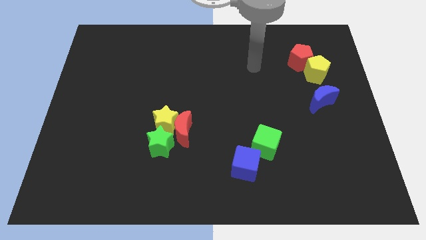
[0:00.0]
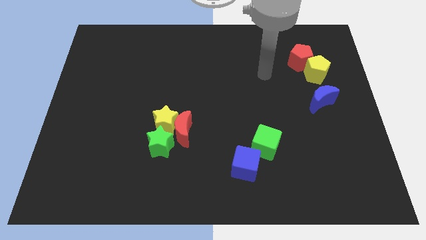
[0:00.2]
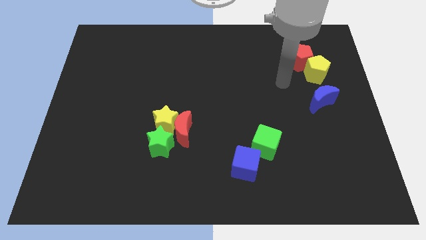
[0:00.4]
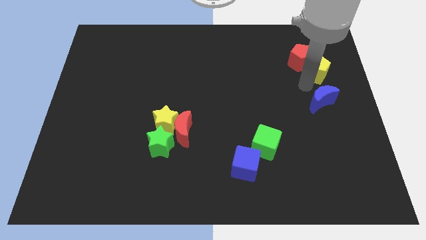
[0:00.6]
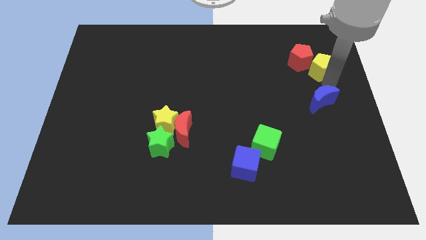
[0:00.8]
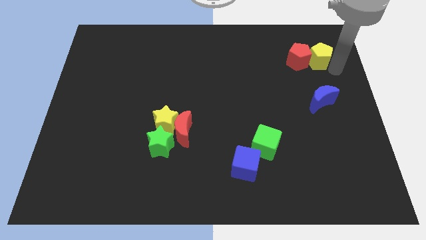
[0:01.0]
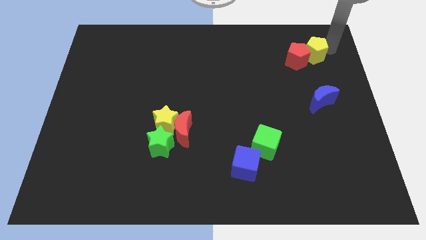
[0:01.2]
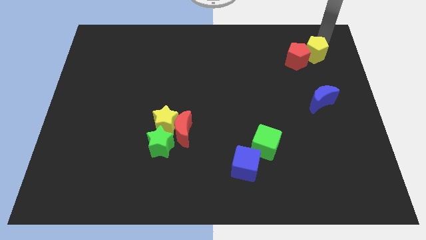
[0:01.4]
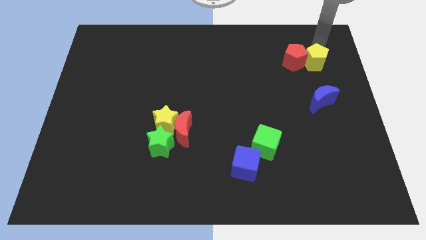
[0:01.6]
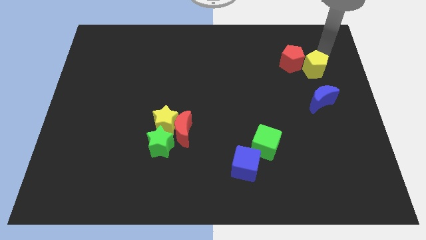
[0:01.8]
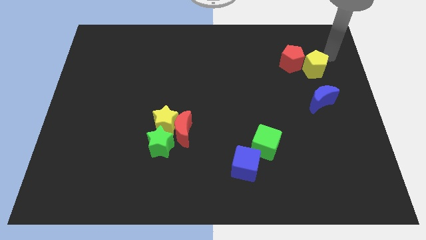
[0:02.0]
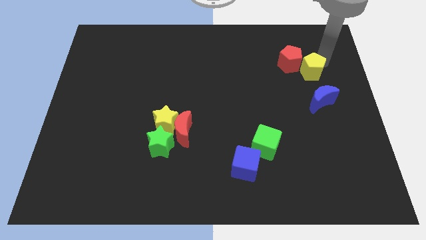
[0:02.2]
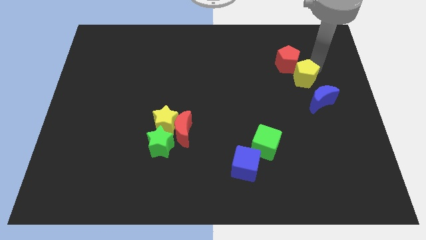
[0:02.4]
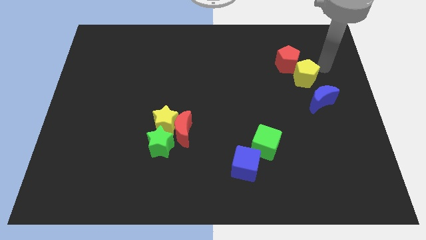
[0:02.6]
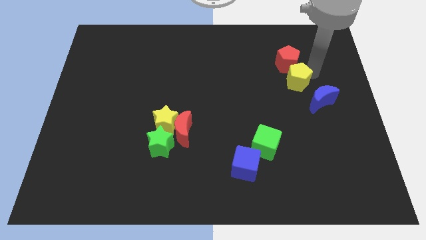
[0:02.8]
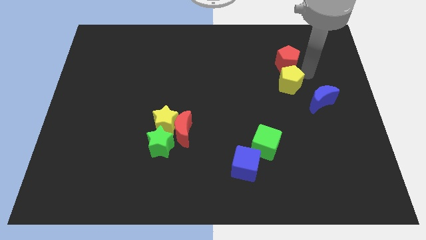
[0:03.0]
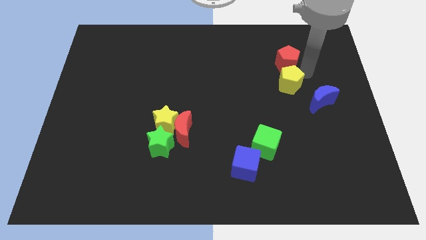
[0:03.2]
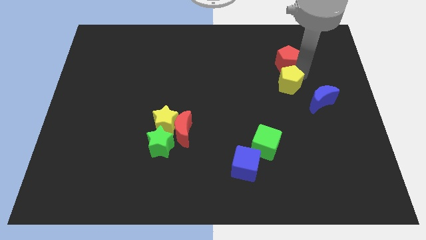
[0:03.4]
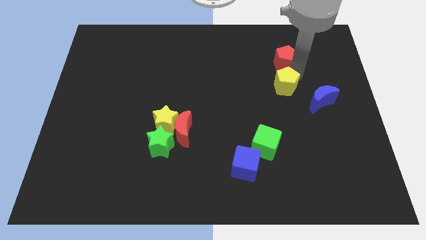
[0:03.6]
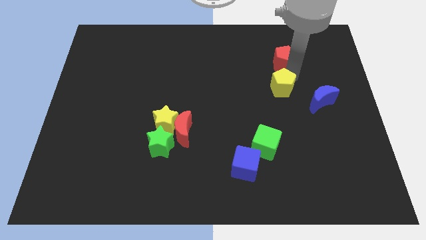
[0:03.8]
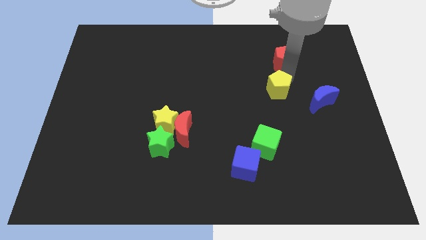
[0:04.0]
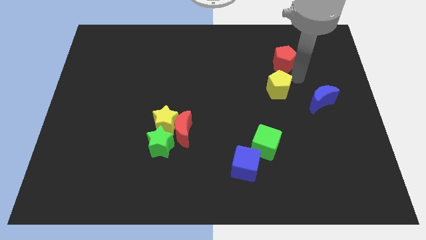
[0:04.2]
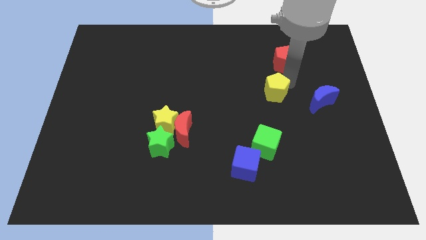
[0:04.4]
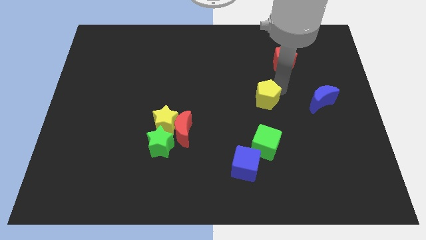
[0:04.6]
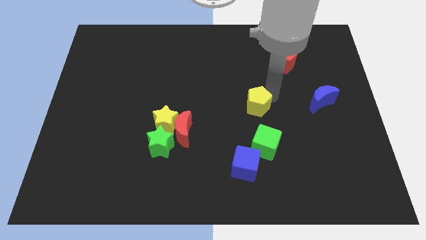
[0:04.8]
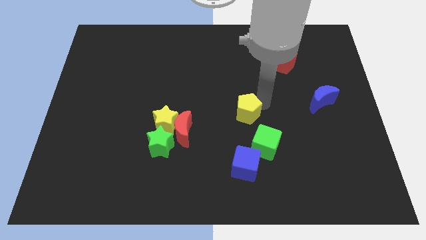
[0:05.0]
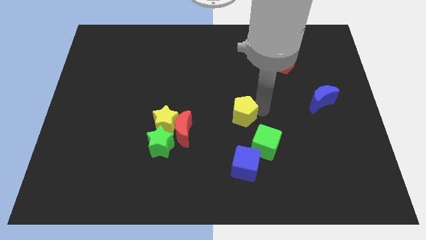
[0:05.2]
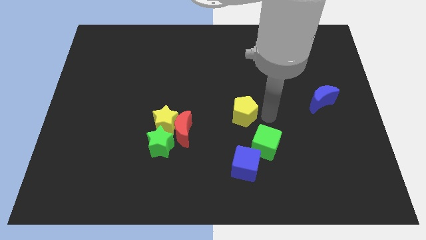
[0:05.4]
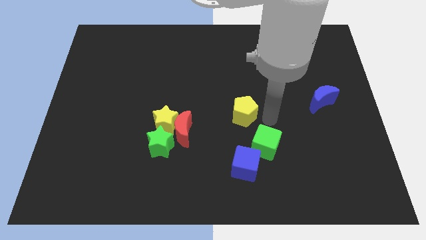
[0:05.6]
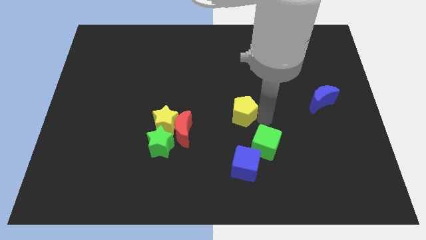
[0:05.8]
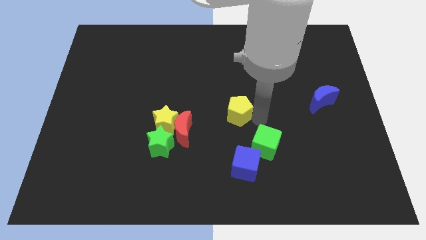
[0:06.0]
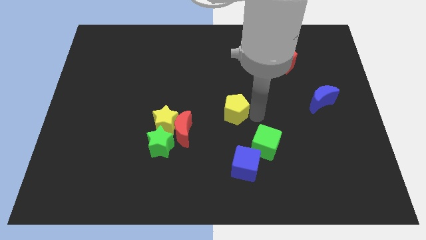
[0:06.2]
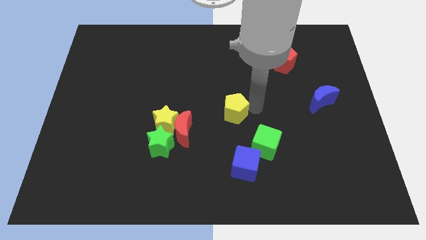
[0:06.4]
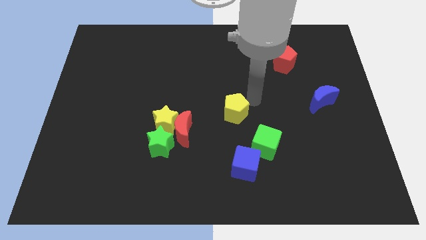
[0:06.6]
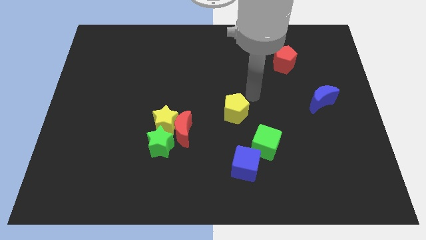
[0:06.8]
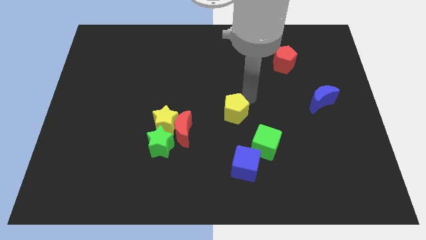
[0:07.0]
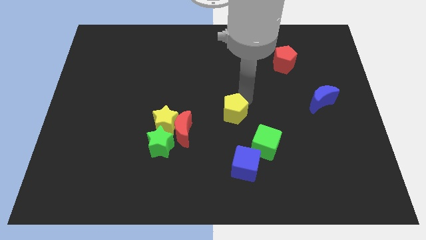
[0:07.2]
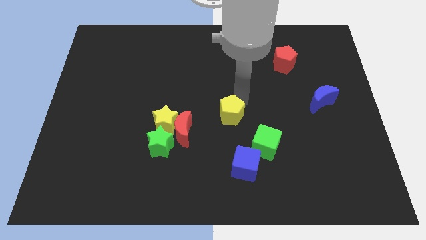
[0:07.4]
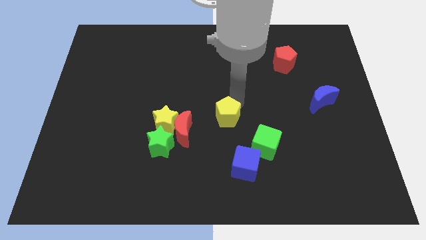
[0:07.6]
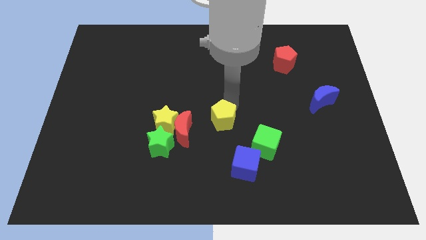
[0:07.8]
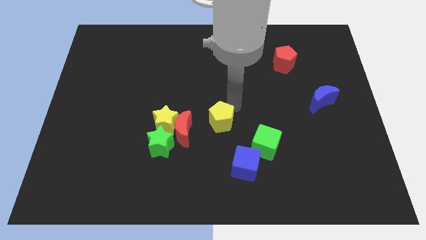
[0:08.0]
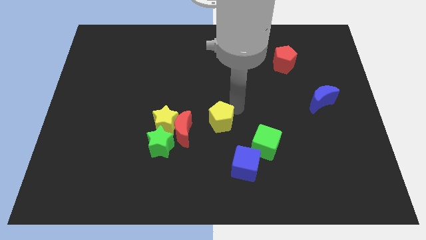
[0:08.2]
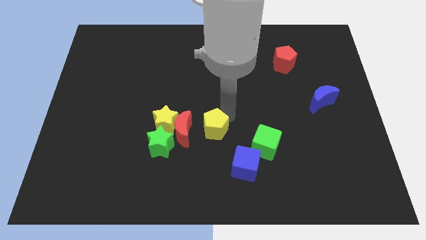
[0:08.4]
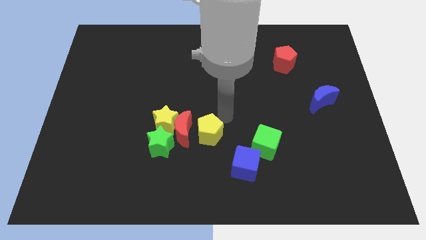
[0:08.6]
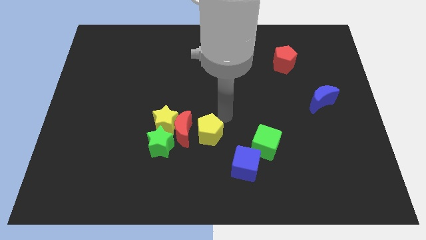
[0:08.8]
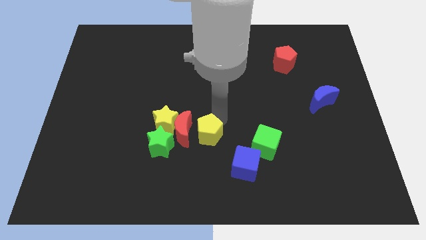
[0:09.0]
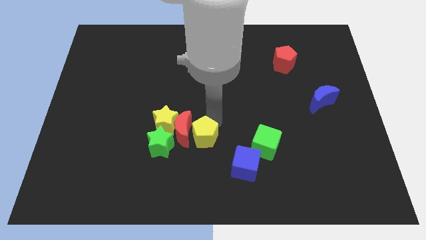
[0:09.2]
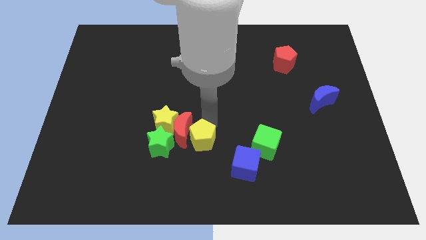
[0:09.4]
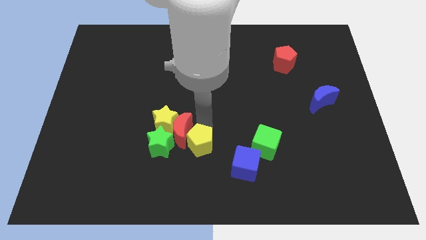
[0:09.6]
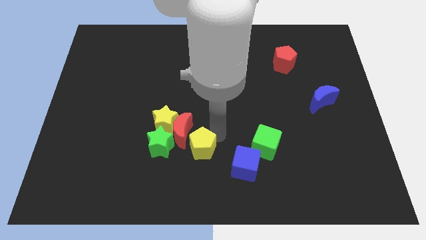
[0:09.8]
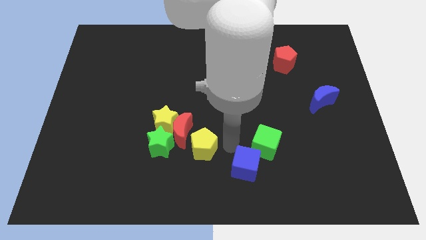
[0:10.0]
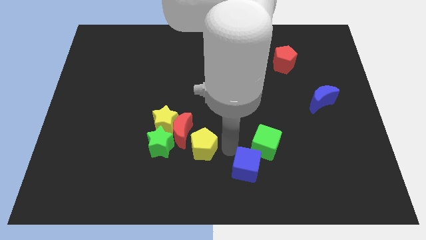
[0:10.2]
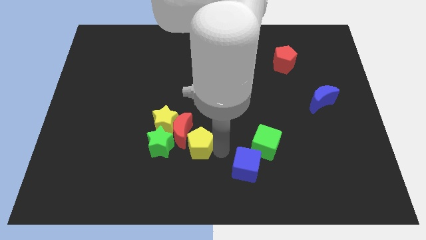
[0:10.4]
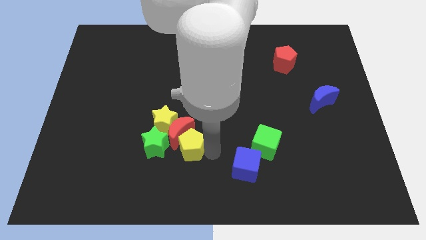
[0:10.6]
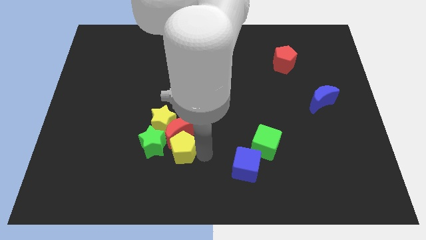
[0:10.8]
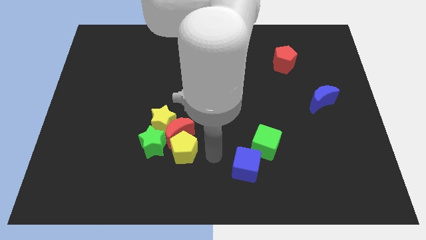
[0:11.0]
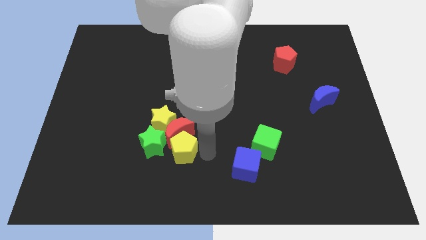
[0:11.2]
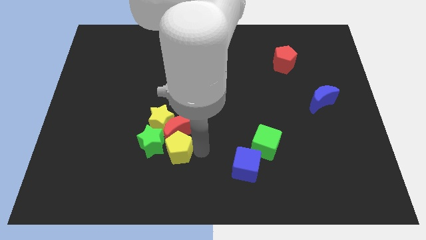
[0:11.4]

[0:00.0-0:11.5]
slide the yellow pentagon next to the green star

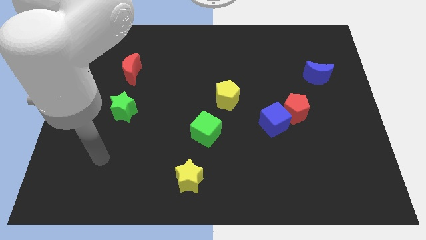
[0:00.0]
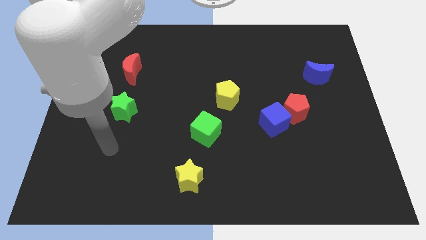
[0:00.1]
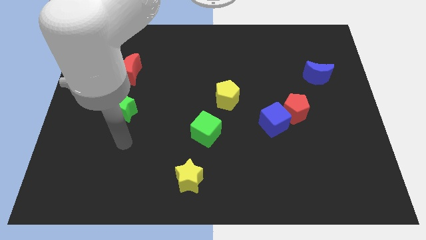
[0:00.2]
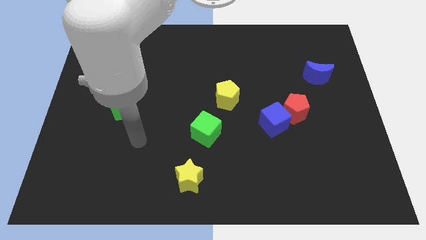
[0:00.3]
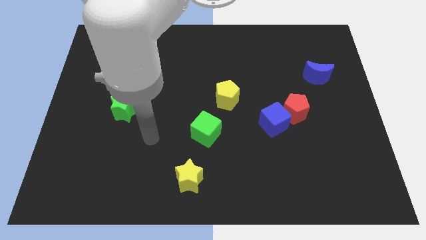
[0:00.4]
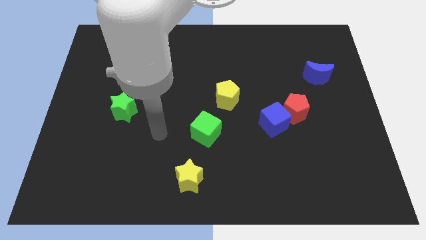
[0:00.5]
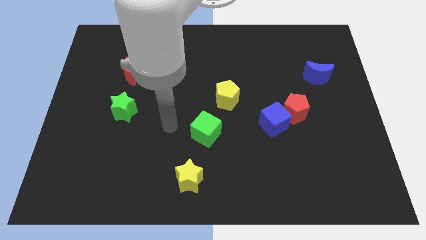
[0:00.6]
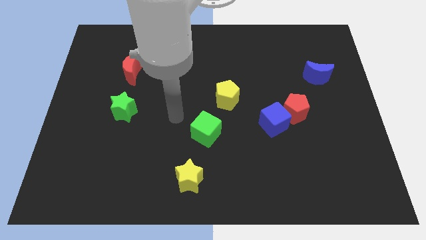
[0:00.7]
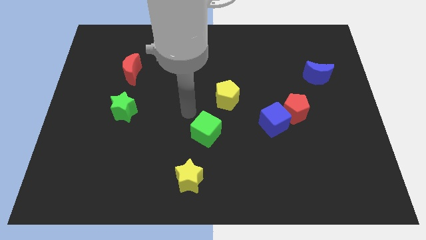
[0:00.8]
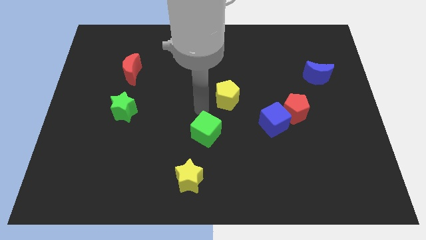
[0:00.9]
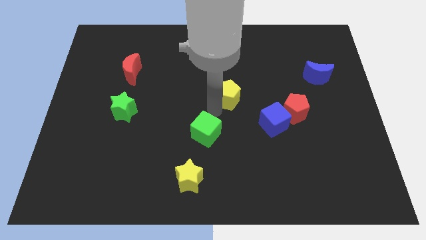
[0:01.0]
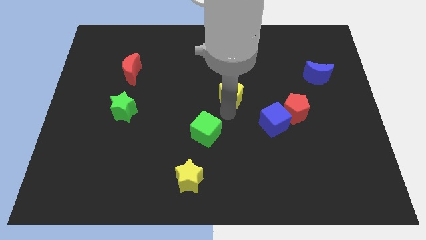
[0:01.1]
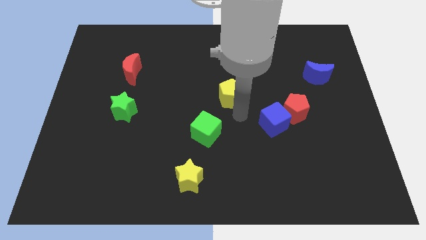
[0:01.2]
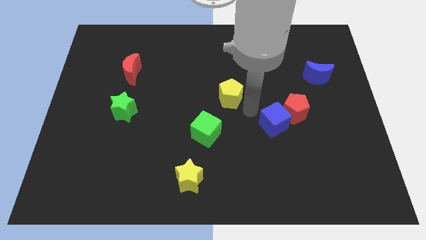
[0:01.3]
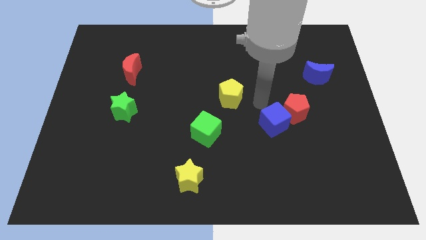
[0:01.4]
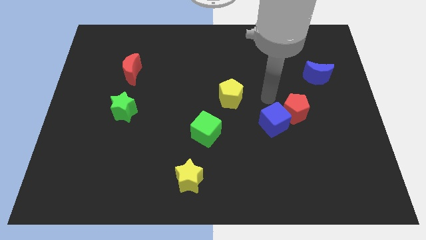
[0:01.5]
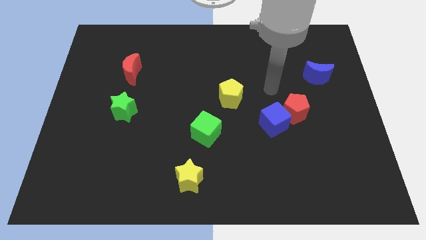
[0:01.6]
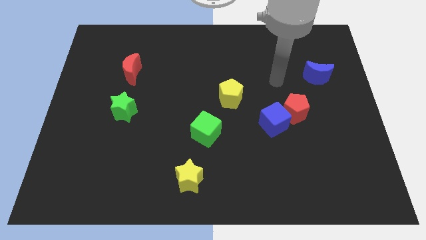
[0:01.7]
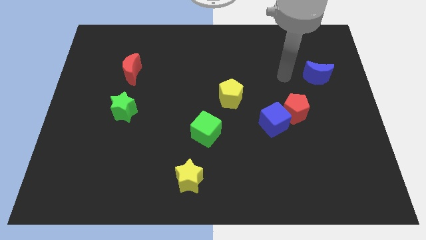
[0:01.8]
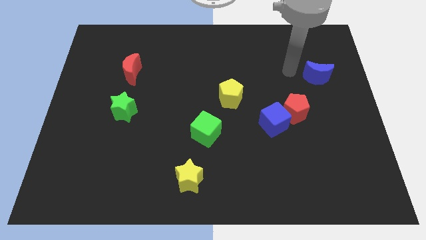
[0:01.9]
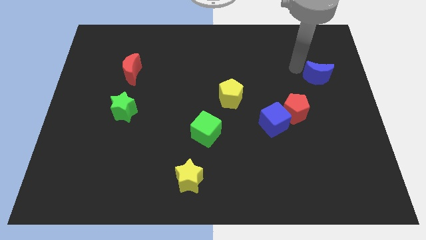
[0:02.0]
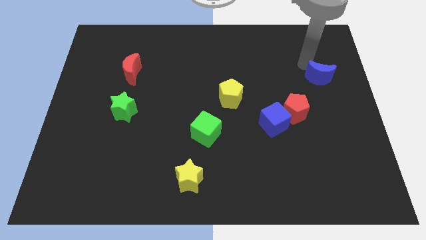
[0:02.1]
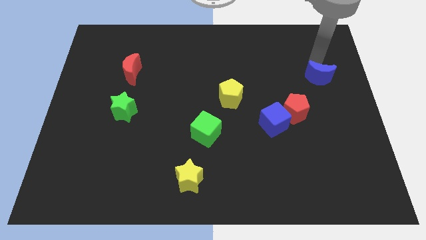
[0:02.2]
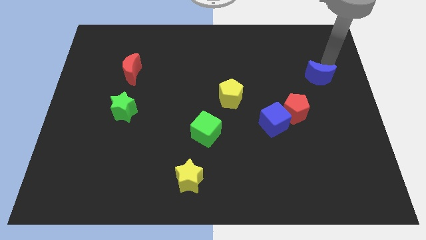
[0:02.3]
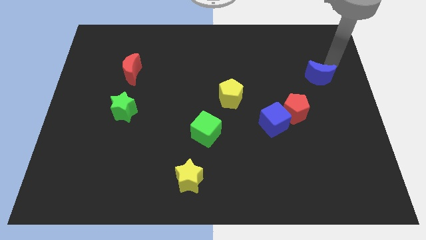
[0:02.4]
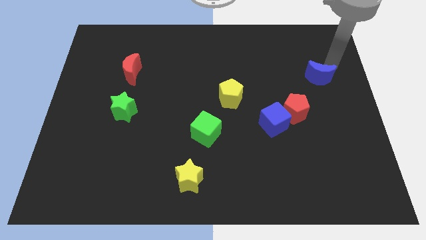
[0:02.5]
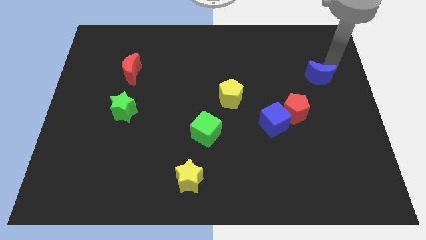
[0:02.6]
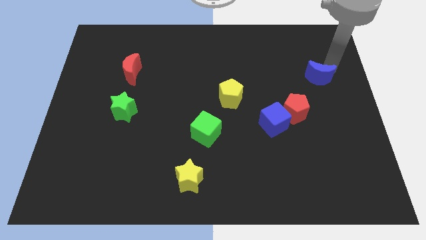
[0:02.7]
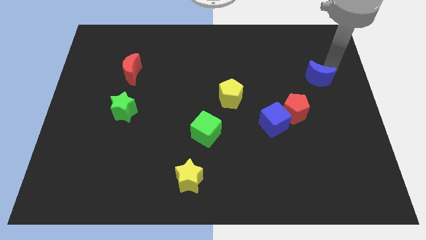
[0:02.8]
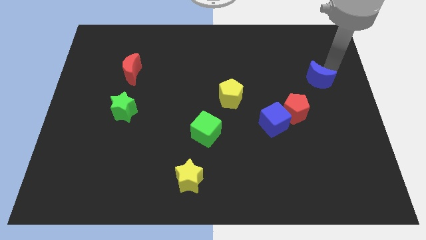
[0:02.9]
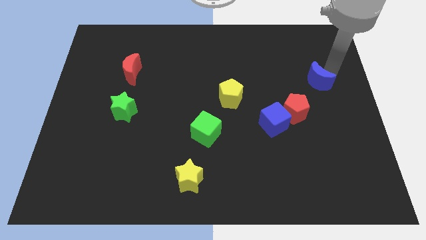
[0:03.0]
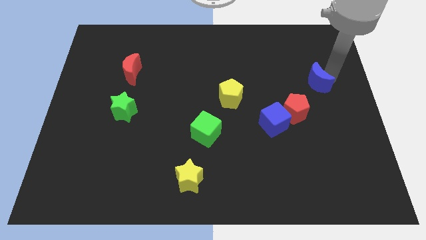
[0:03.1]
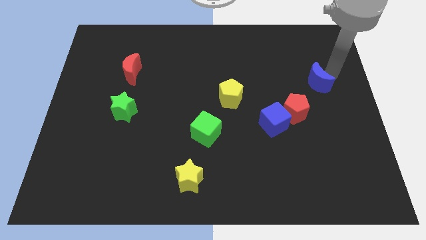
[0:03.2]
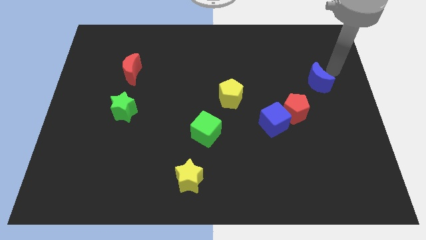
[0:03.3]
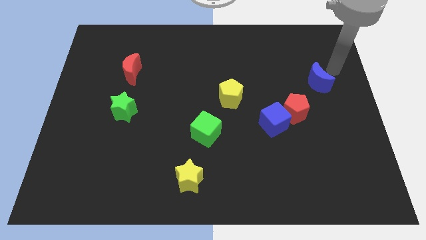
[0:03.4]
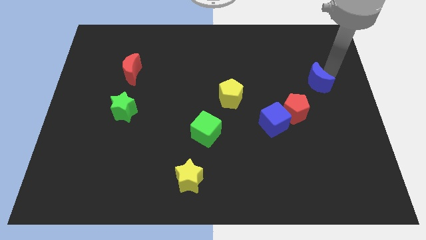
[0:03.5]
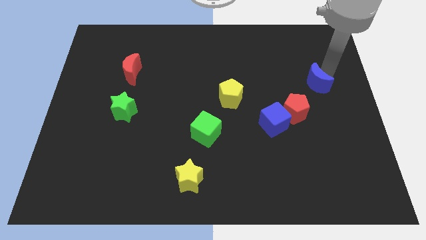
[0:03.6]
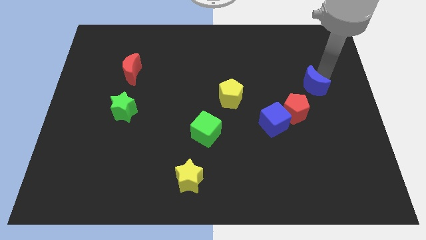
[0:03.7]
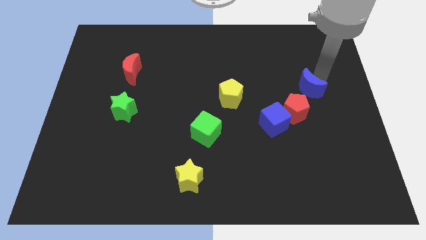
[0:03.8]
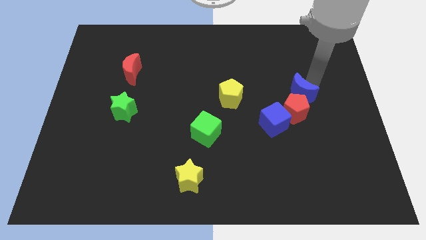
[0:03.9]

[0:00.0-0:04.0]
slide the blue moon to the red pentagon
